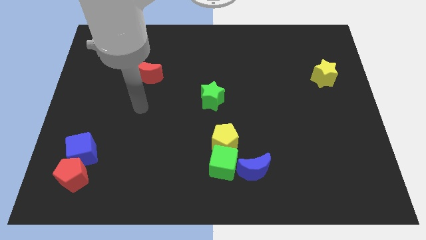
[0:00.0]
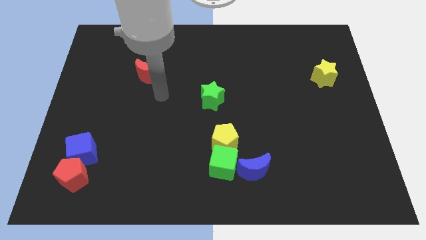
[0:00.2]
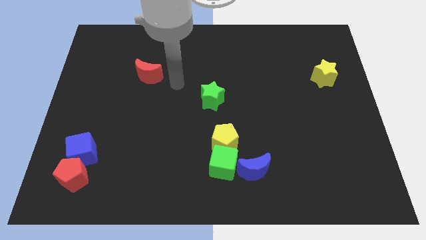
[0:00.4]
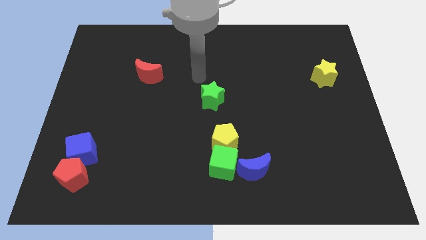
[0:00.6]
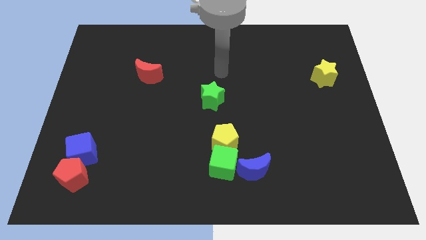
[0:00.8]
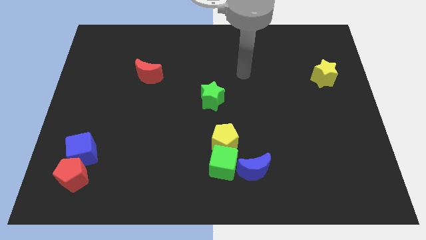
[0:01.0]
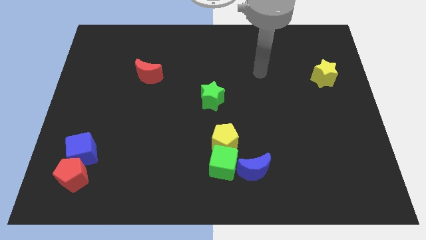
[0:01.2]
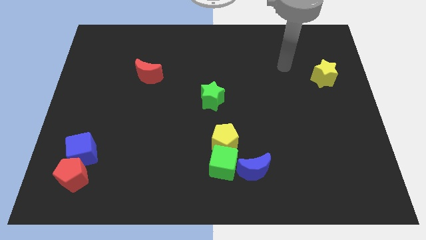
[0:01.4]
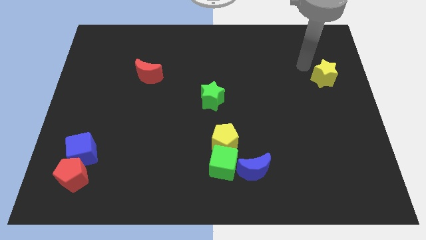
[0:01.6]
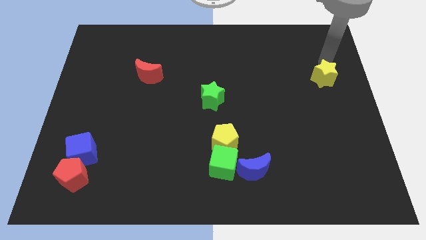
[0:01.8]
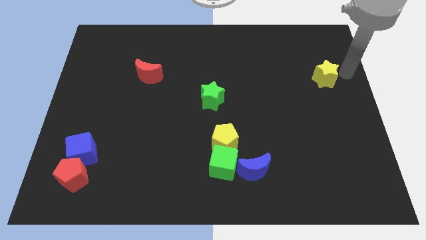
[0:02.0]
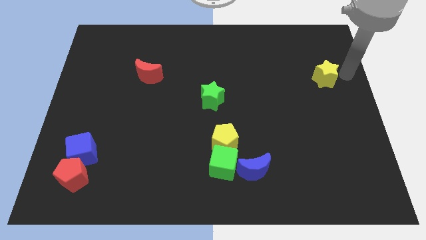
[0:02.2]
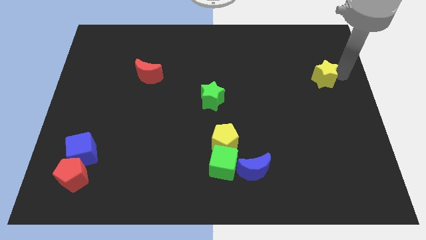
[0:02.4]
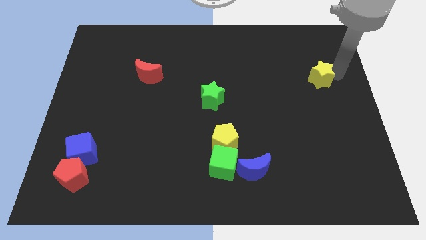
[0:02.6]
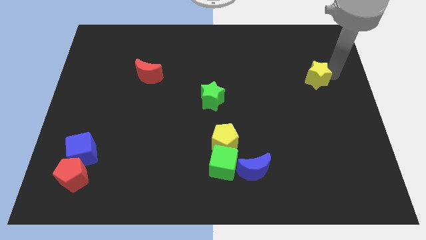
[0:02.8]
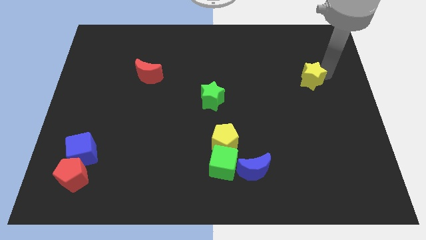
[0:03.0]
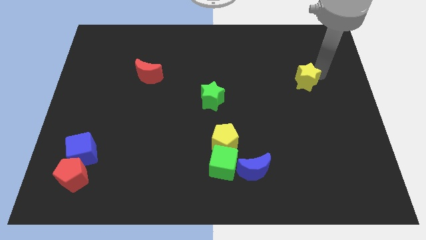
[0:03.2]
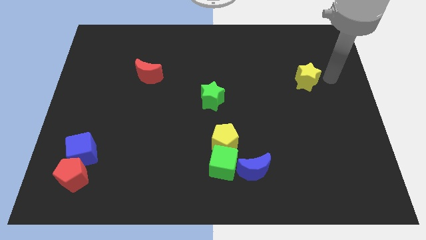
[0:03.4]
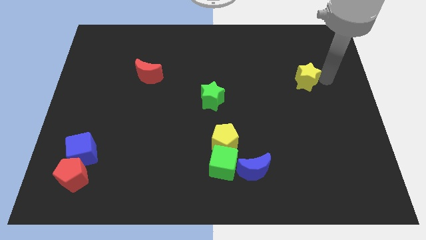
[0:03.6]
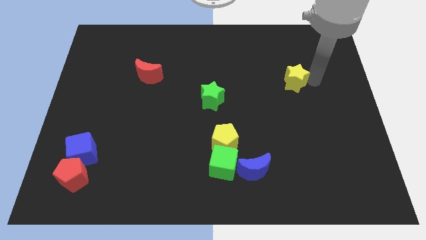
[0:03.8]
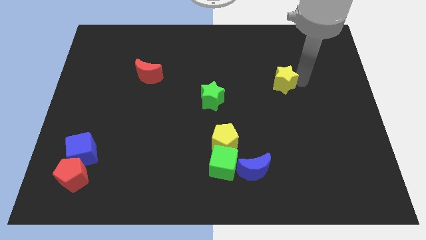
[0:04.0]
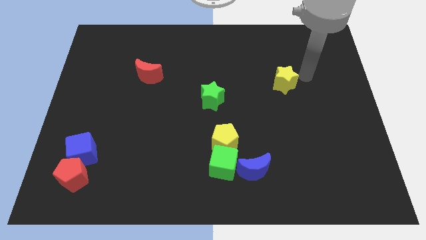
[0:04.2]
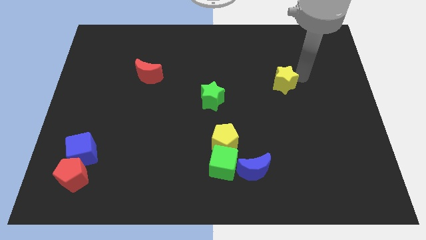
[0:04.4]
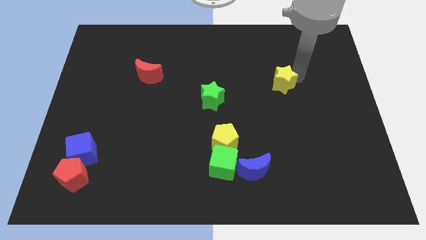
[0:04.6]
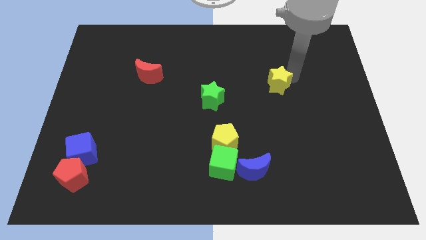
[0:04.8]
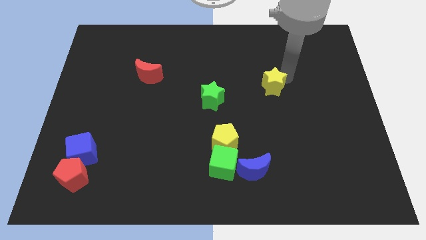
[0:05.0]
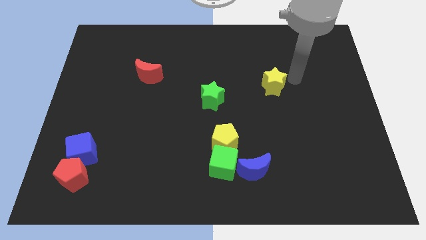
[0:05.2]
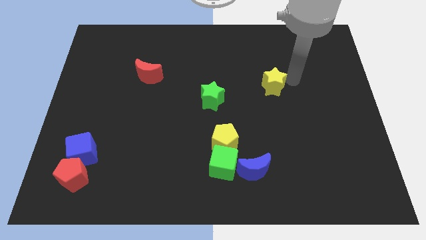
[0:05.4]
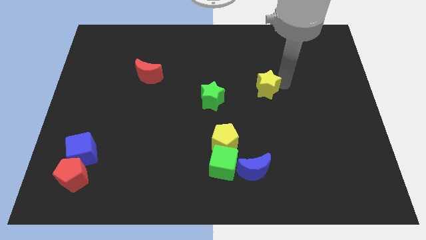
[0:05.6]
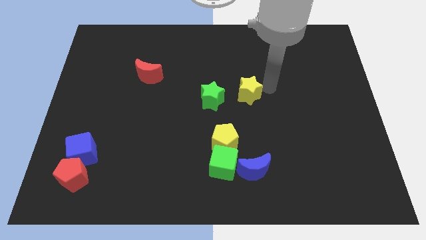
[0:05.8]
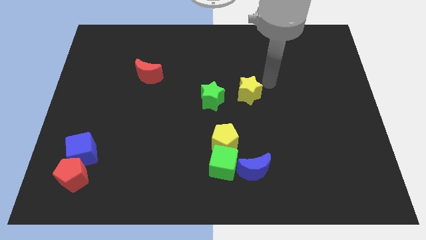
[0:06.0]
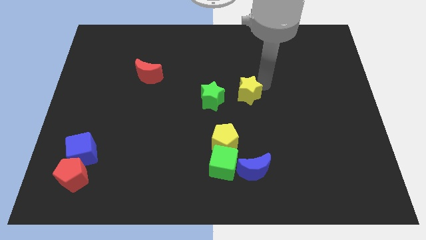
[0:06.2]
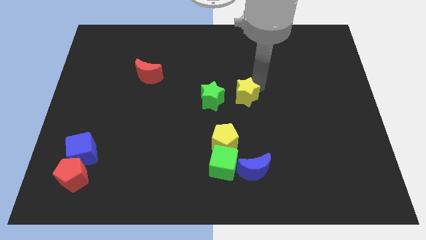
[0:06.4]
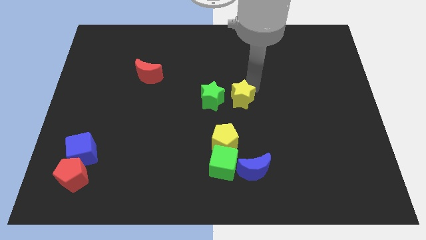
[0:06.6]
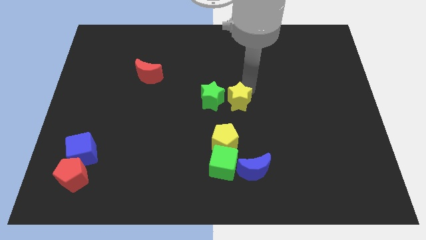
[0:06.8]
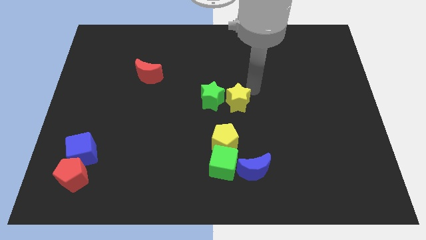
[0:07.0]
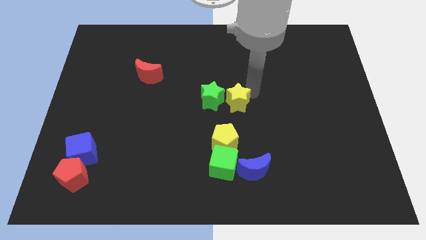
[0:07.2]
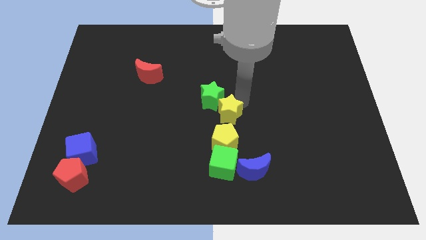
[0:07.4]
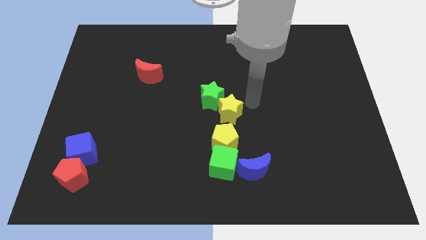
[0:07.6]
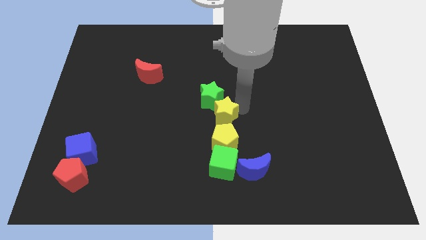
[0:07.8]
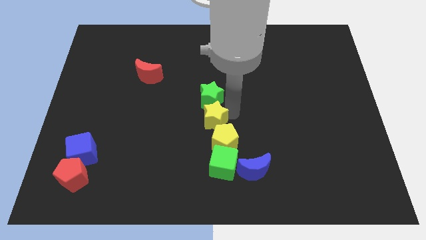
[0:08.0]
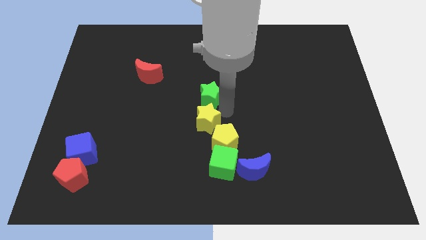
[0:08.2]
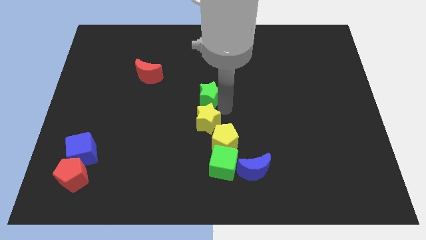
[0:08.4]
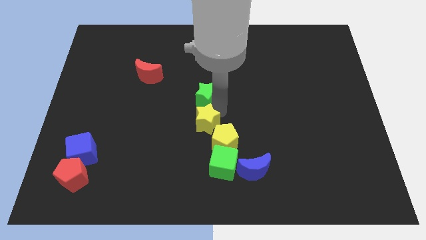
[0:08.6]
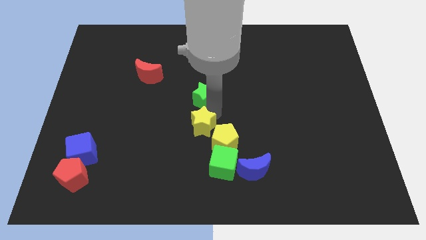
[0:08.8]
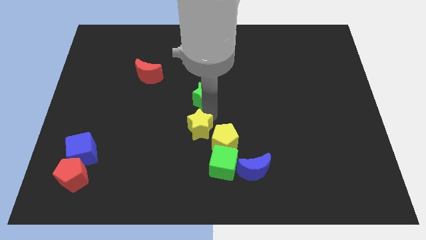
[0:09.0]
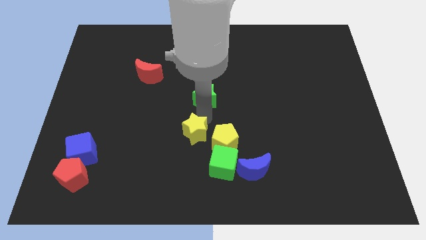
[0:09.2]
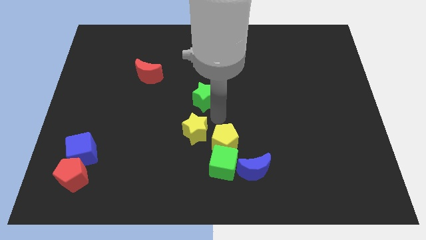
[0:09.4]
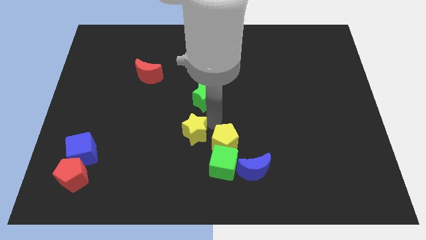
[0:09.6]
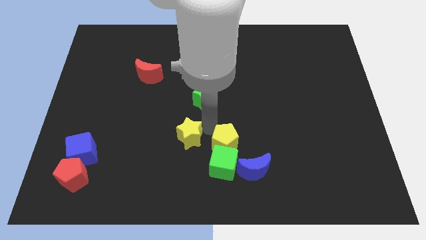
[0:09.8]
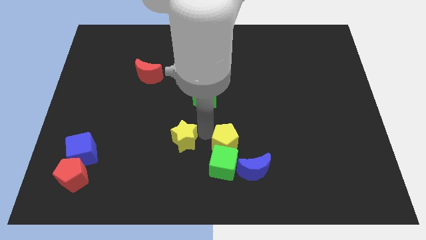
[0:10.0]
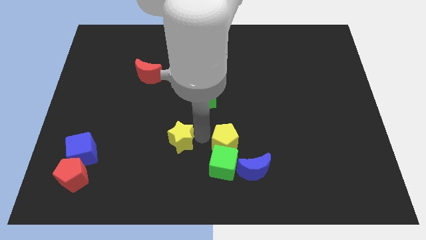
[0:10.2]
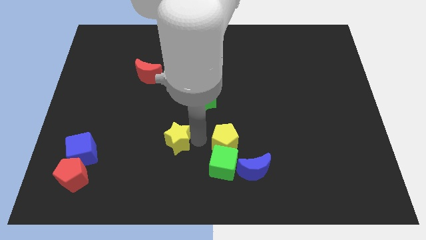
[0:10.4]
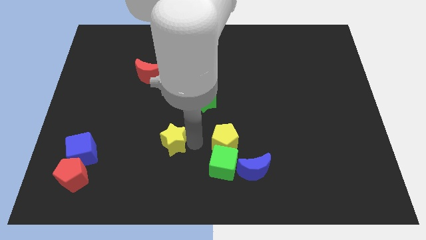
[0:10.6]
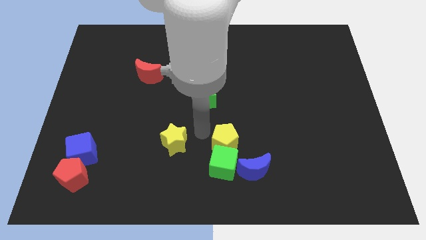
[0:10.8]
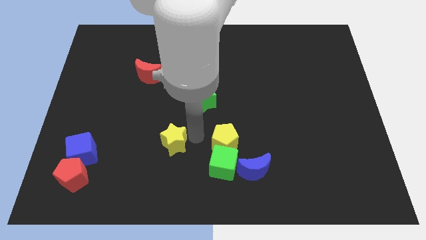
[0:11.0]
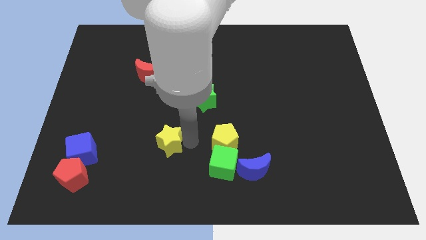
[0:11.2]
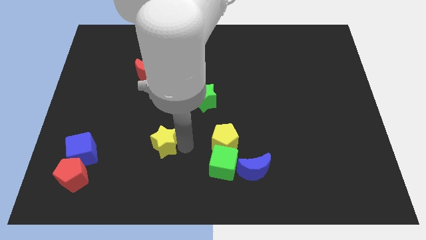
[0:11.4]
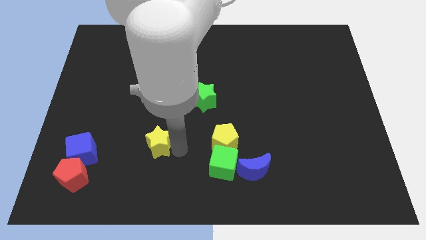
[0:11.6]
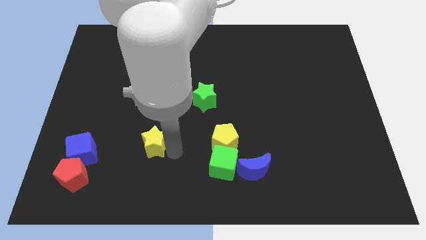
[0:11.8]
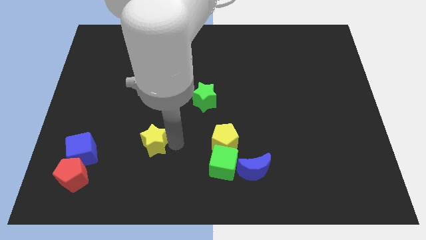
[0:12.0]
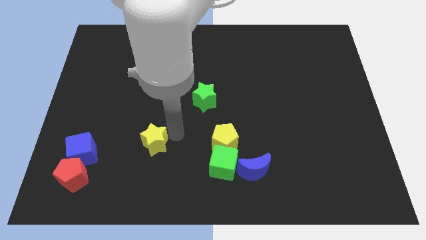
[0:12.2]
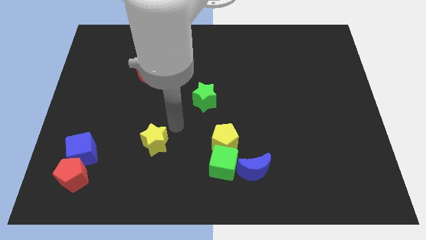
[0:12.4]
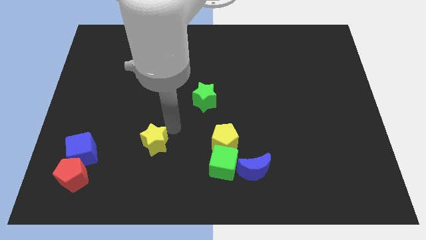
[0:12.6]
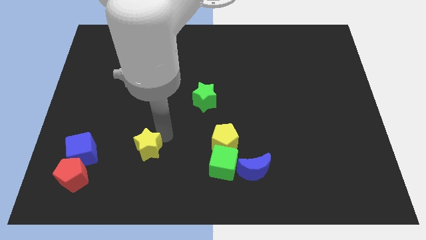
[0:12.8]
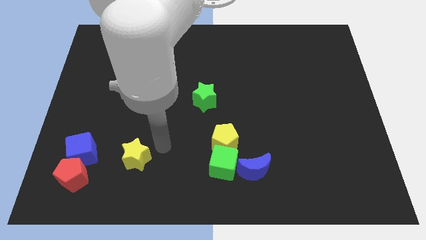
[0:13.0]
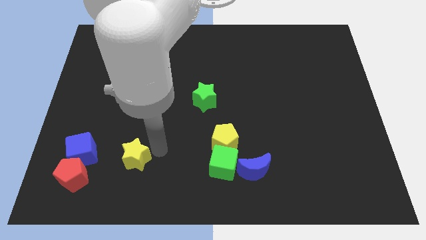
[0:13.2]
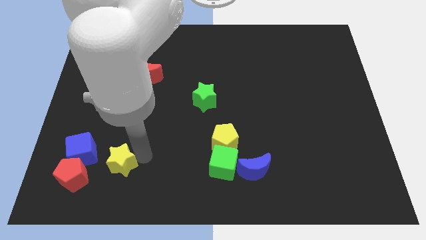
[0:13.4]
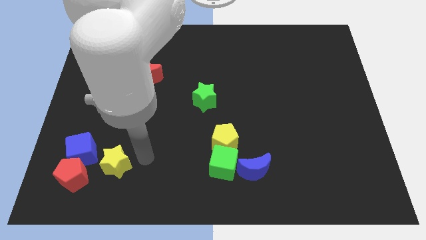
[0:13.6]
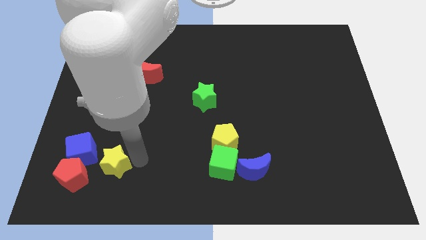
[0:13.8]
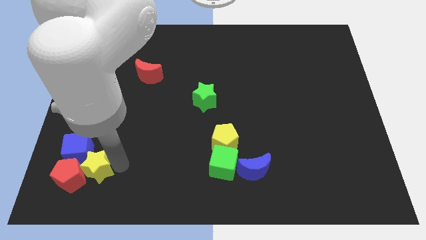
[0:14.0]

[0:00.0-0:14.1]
put the yellow star towards the red pentagon

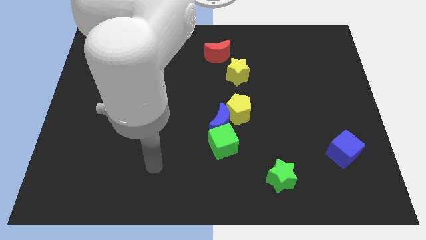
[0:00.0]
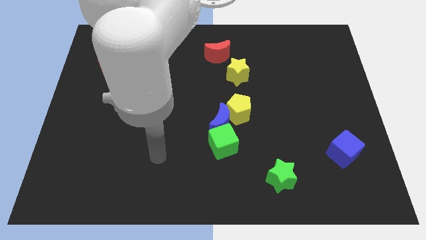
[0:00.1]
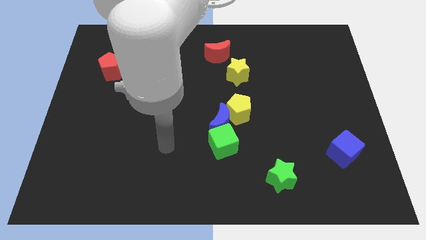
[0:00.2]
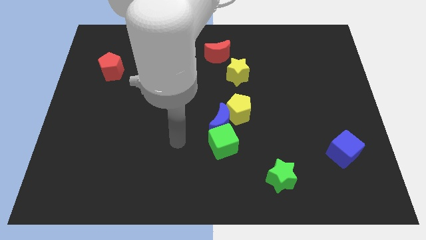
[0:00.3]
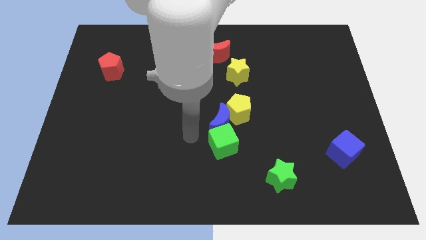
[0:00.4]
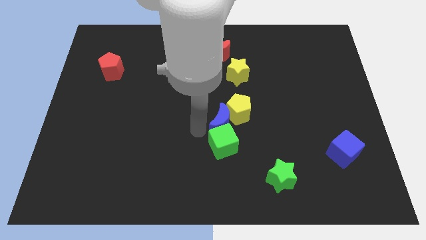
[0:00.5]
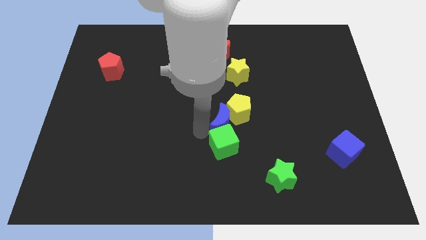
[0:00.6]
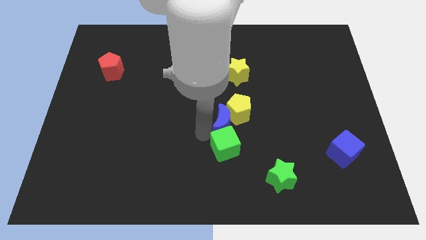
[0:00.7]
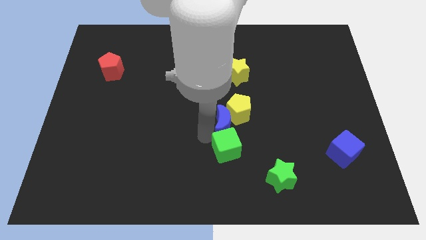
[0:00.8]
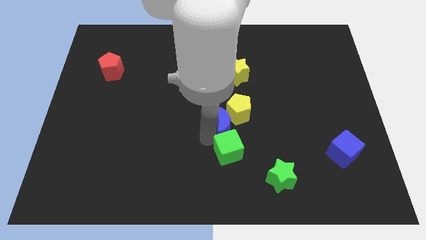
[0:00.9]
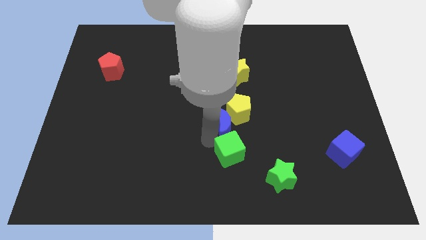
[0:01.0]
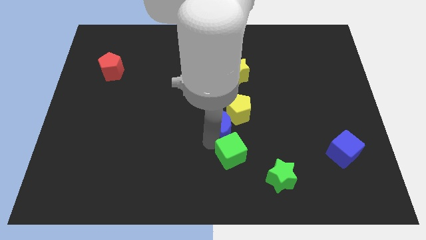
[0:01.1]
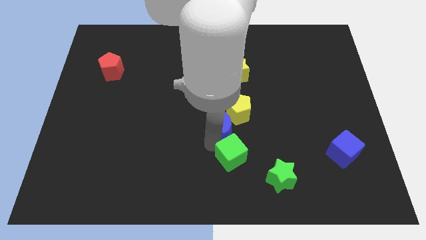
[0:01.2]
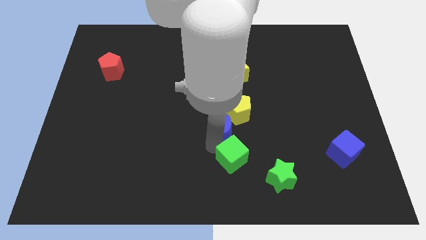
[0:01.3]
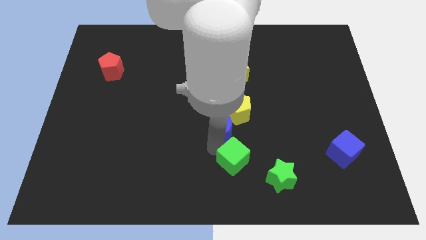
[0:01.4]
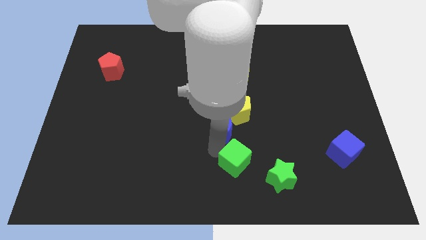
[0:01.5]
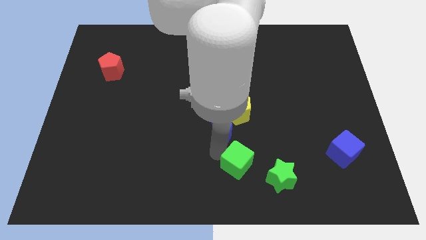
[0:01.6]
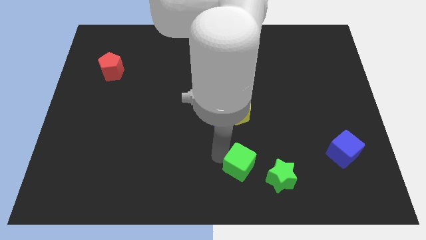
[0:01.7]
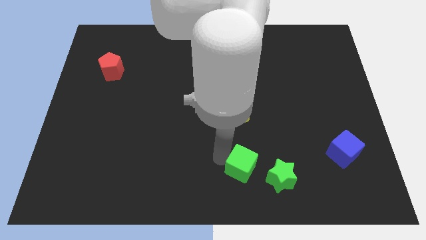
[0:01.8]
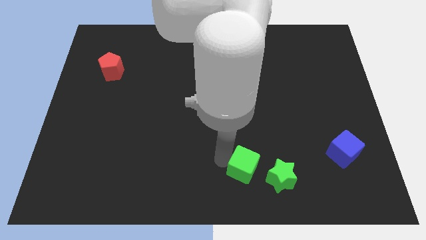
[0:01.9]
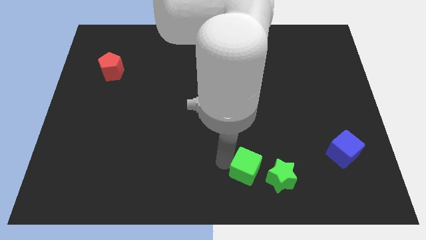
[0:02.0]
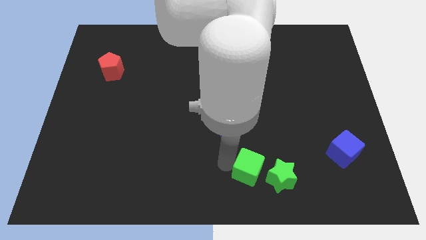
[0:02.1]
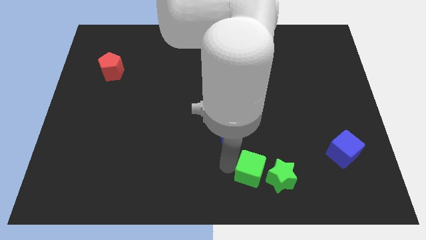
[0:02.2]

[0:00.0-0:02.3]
push the green cube to the green star
